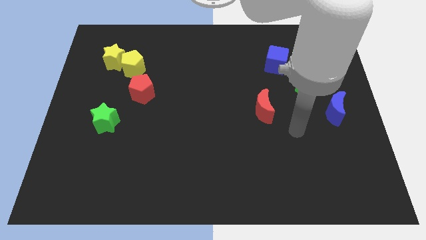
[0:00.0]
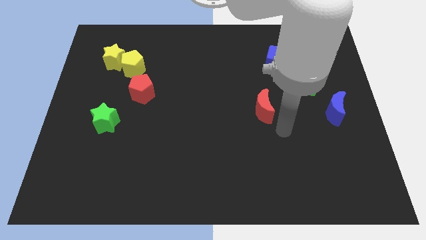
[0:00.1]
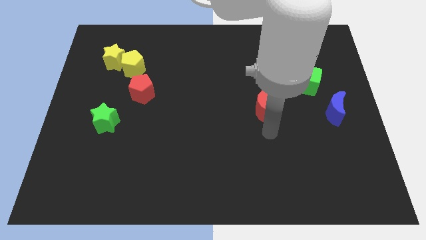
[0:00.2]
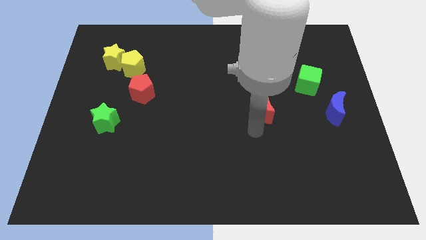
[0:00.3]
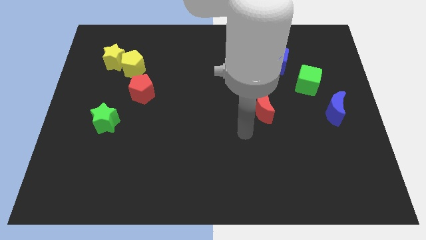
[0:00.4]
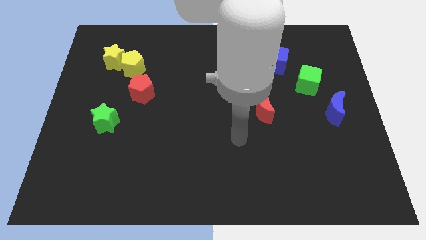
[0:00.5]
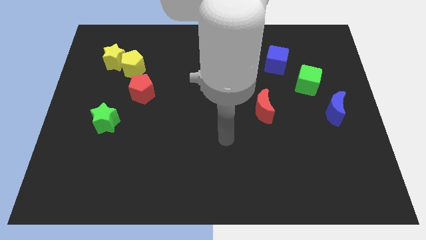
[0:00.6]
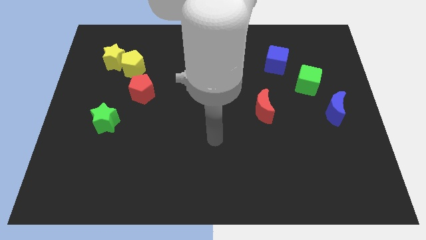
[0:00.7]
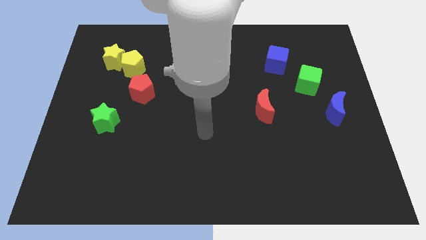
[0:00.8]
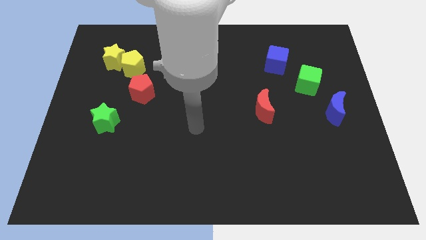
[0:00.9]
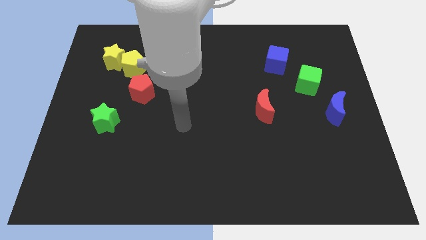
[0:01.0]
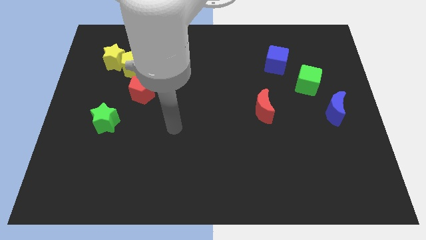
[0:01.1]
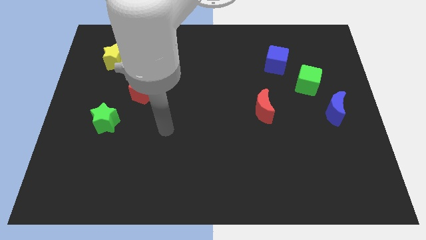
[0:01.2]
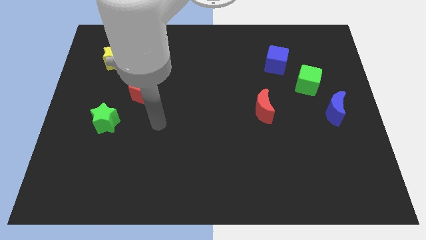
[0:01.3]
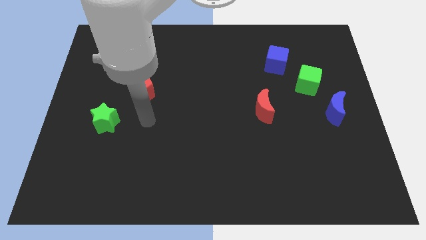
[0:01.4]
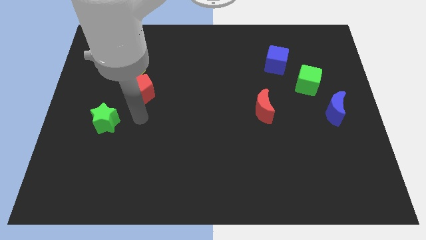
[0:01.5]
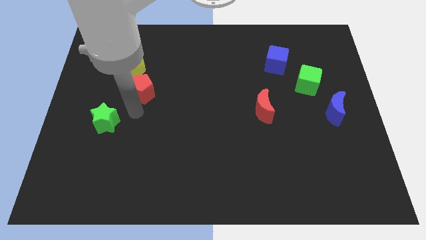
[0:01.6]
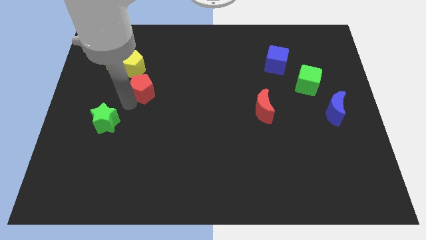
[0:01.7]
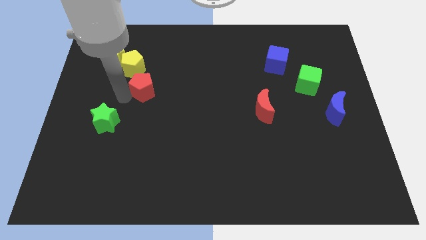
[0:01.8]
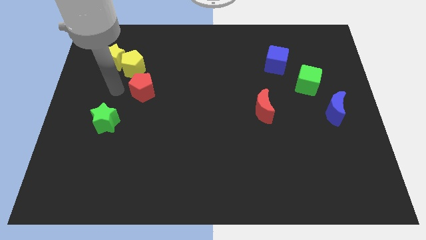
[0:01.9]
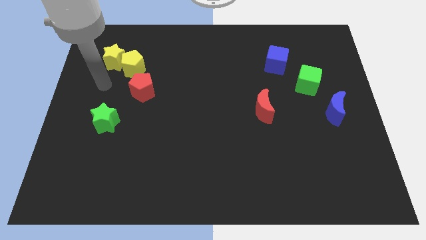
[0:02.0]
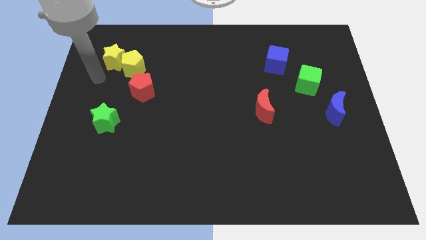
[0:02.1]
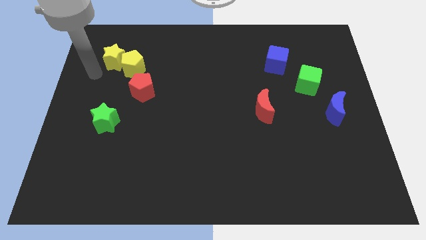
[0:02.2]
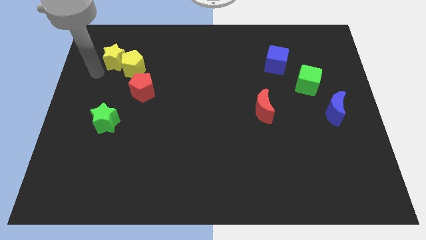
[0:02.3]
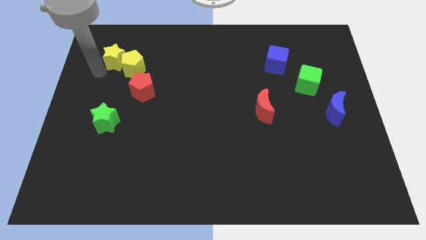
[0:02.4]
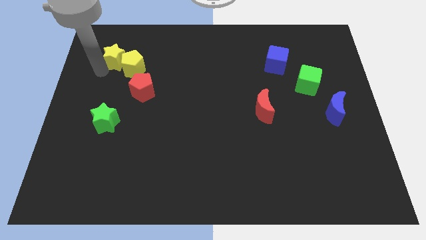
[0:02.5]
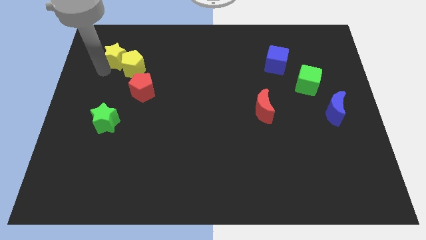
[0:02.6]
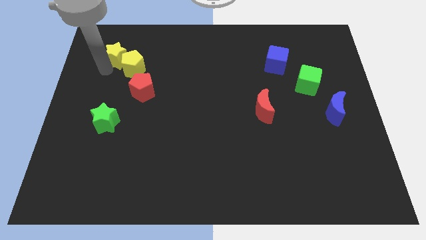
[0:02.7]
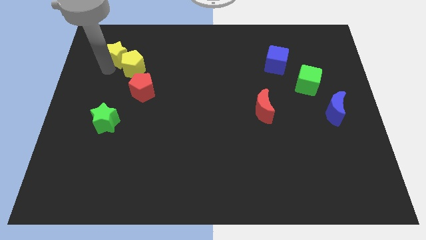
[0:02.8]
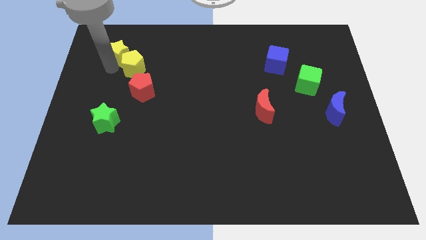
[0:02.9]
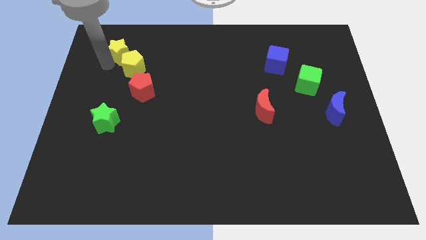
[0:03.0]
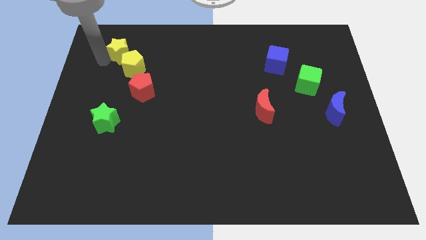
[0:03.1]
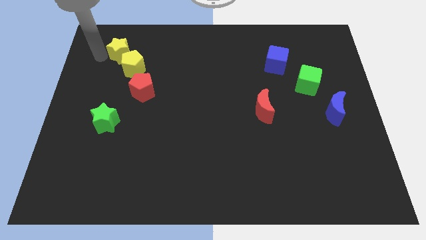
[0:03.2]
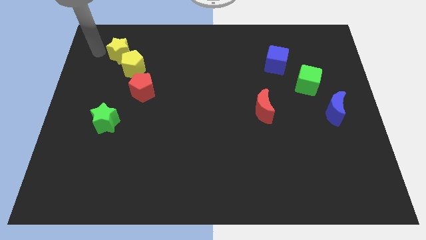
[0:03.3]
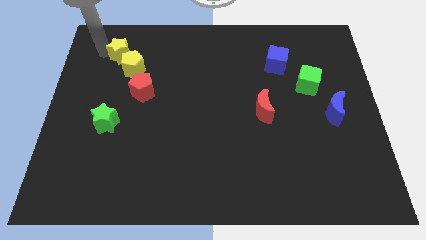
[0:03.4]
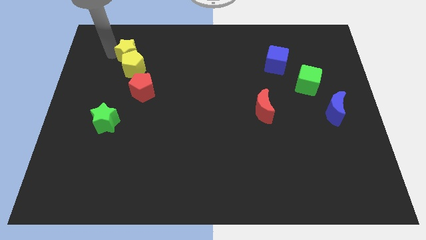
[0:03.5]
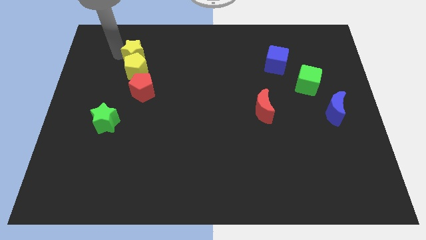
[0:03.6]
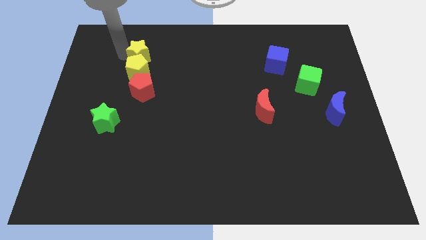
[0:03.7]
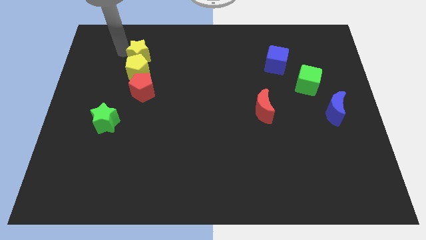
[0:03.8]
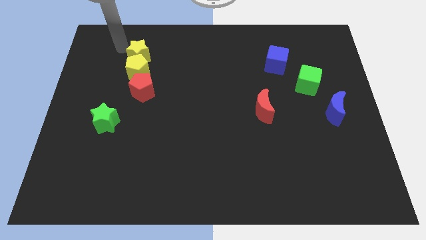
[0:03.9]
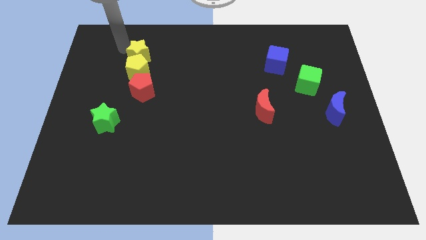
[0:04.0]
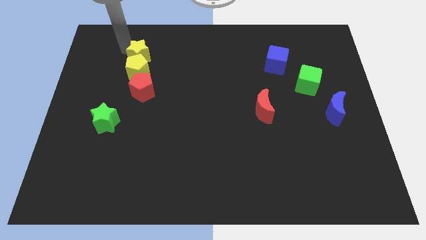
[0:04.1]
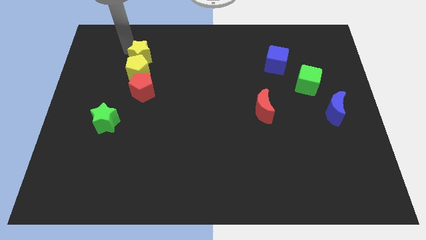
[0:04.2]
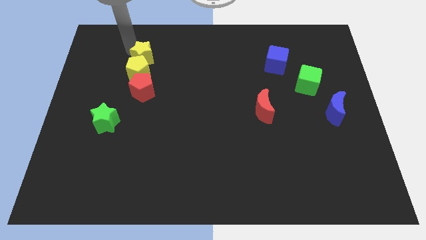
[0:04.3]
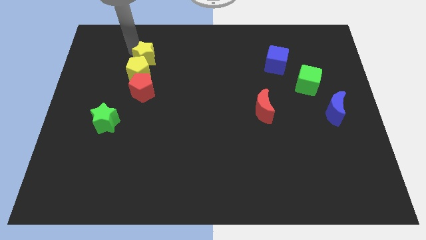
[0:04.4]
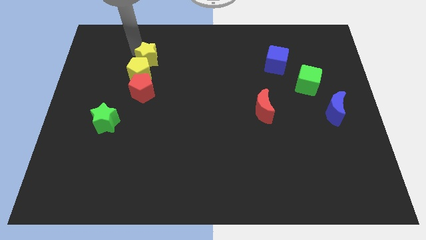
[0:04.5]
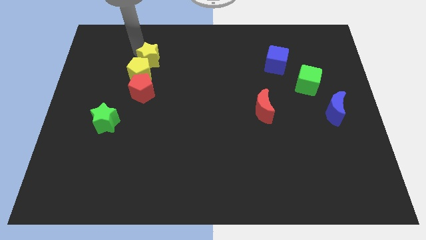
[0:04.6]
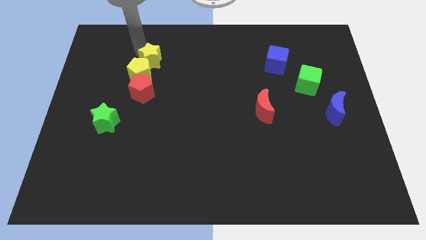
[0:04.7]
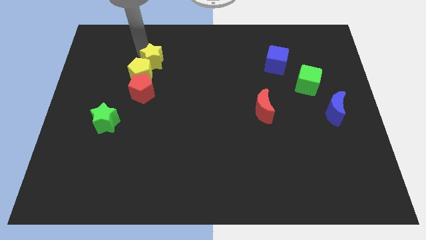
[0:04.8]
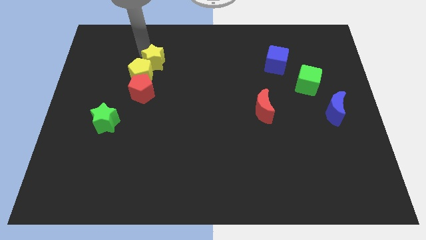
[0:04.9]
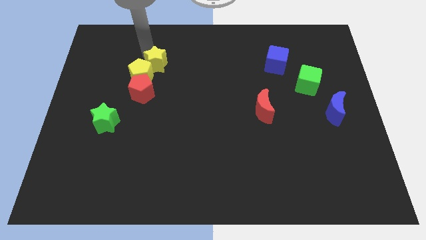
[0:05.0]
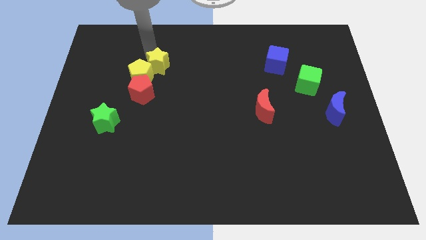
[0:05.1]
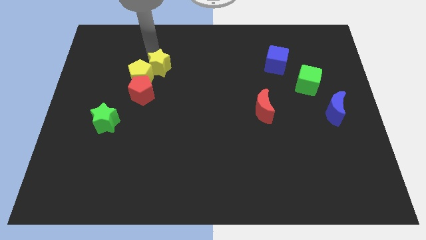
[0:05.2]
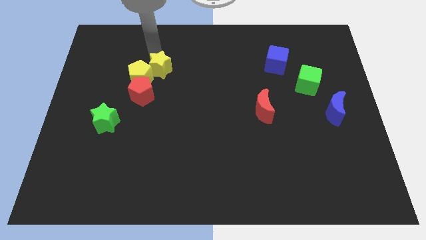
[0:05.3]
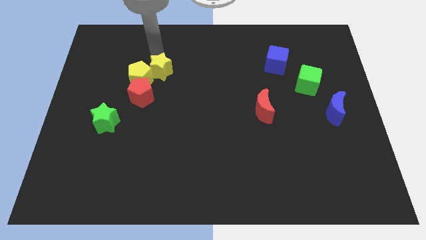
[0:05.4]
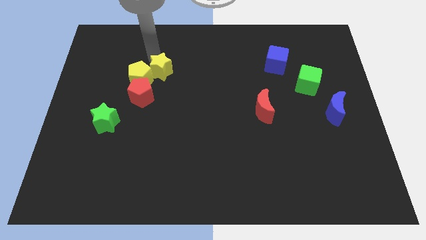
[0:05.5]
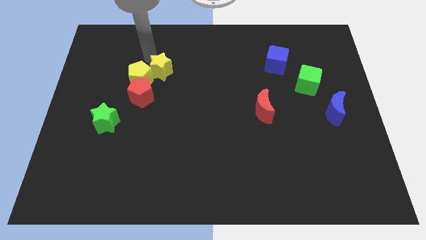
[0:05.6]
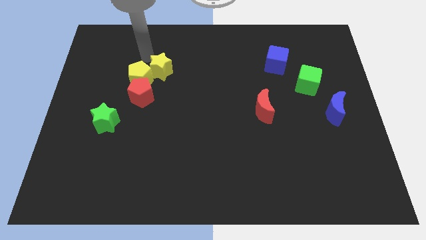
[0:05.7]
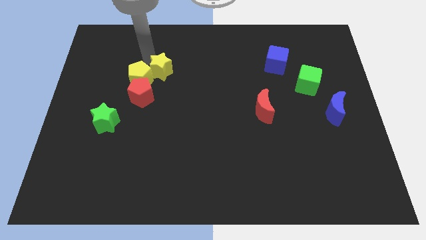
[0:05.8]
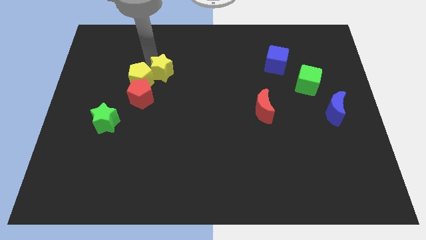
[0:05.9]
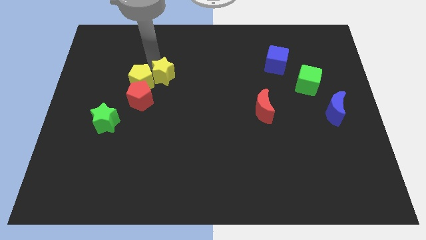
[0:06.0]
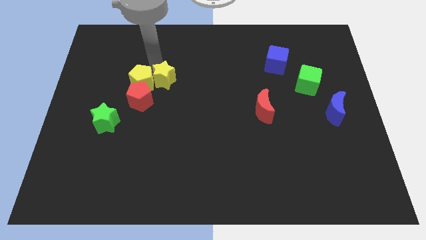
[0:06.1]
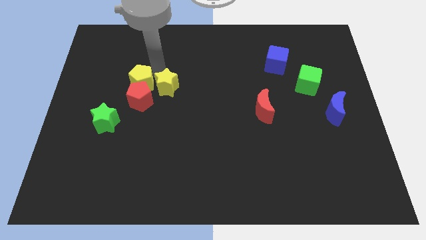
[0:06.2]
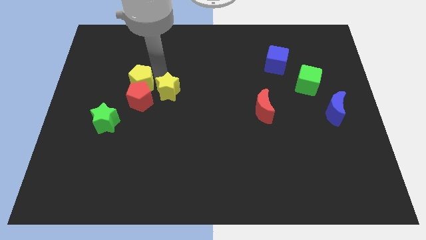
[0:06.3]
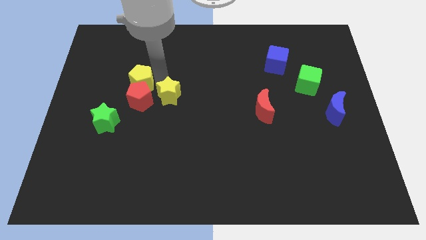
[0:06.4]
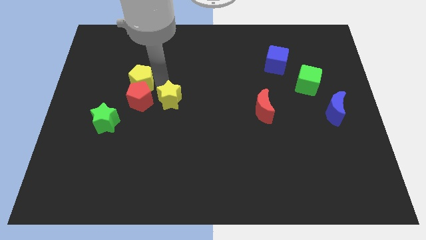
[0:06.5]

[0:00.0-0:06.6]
slide the yellow star diagonally downwards and to the right

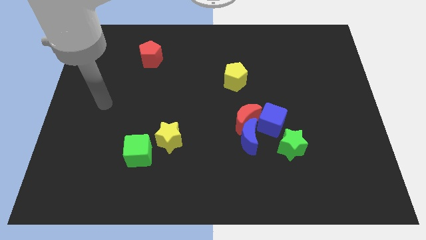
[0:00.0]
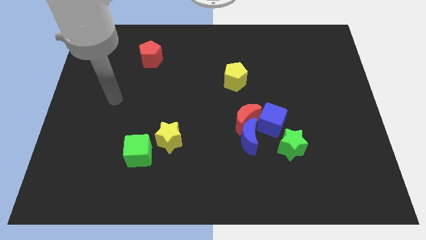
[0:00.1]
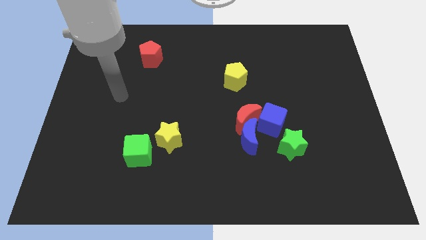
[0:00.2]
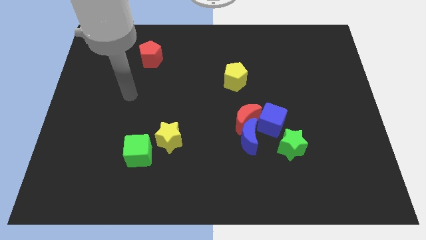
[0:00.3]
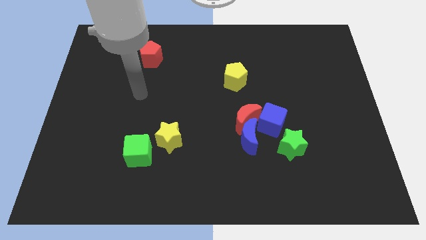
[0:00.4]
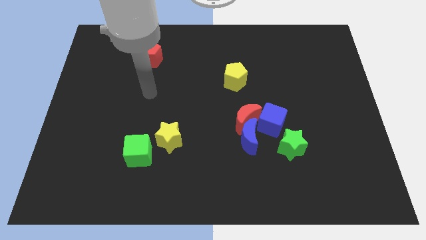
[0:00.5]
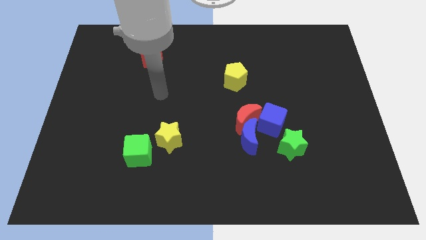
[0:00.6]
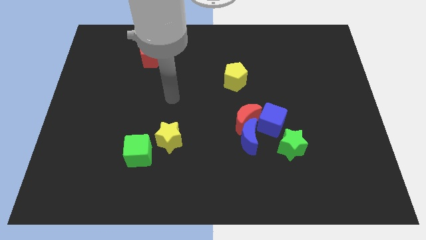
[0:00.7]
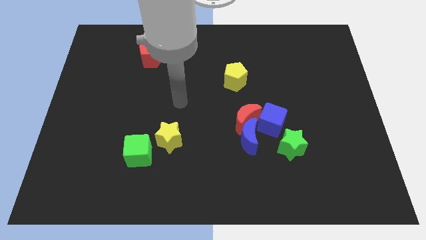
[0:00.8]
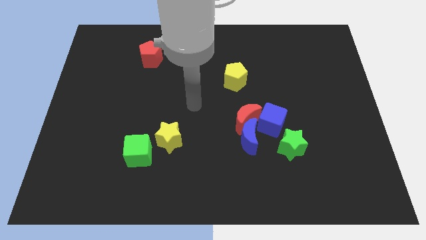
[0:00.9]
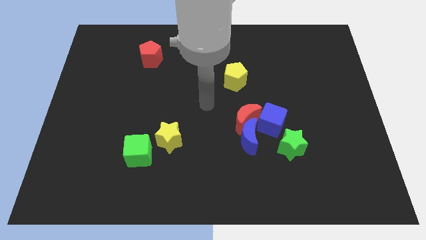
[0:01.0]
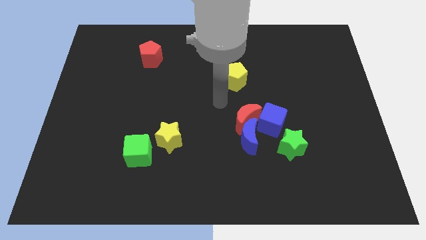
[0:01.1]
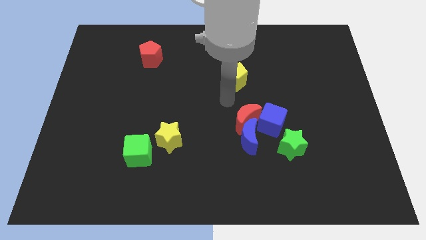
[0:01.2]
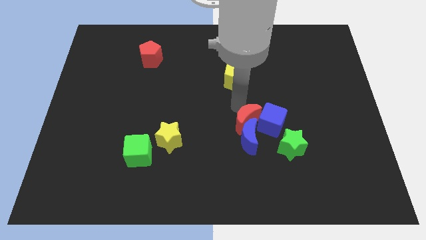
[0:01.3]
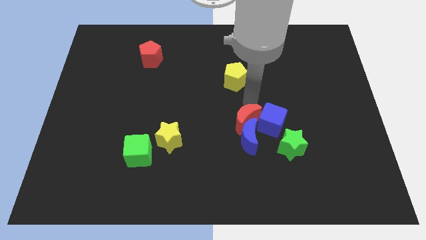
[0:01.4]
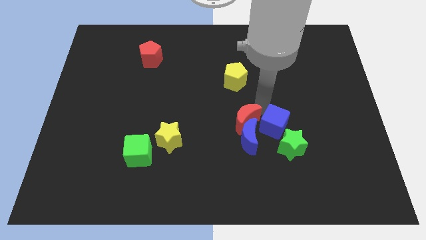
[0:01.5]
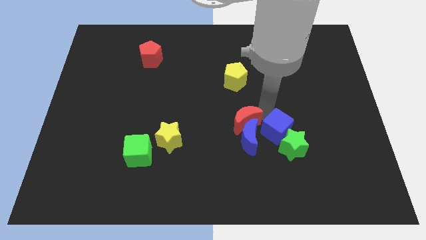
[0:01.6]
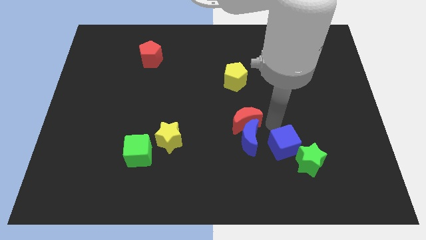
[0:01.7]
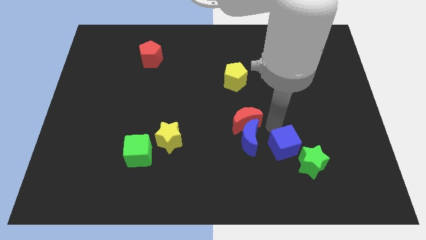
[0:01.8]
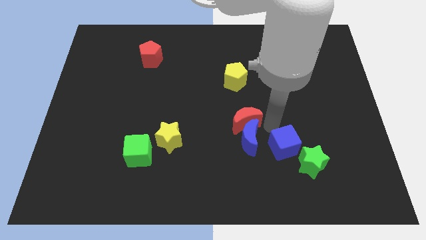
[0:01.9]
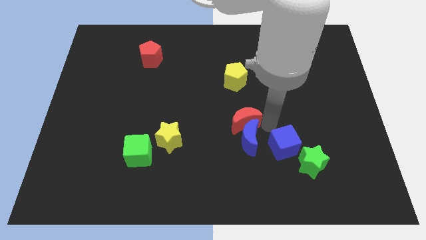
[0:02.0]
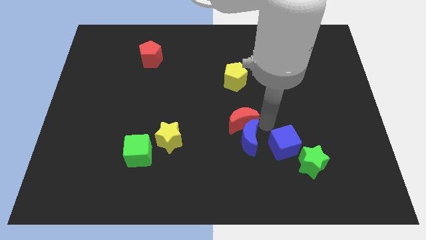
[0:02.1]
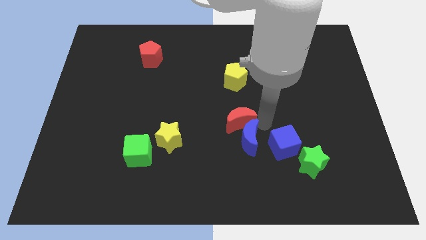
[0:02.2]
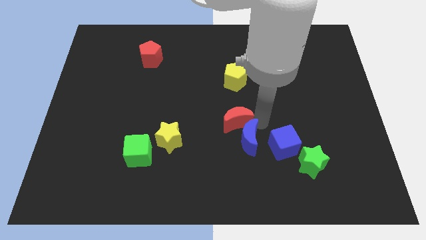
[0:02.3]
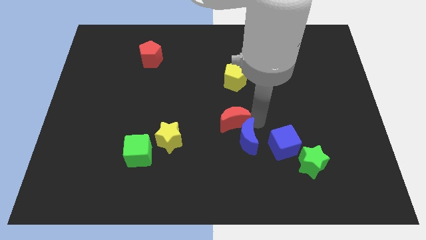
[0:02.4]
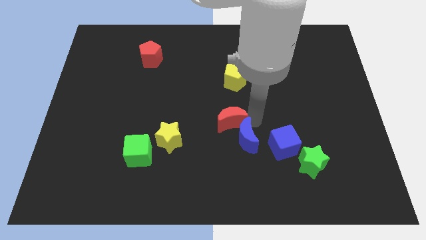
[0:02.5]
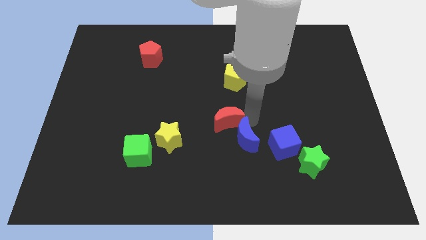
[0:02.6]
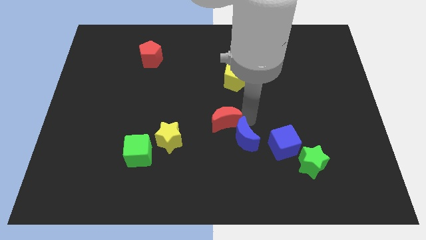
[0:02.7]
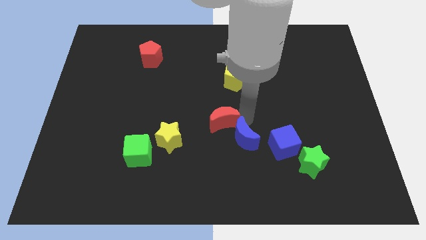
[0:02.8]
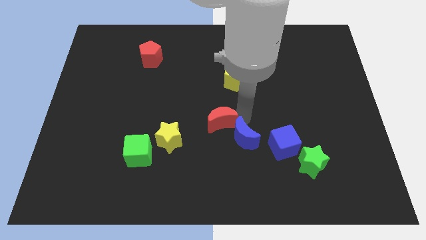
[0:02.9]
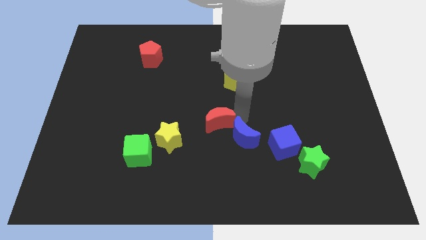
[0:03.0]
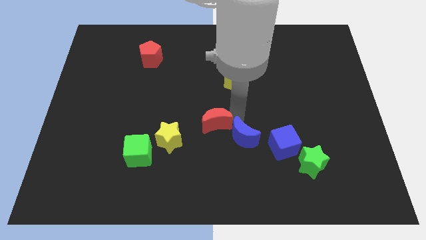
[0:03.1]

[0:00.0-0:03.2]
push the red moon a bit to the left
